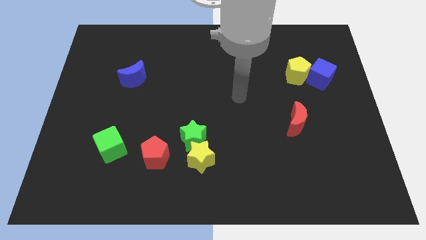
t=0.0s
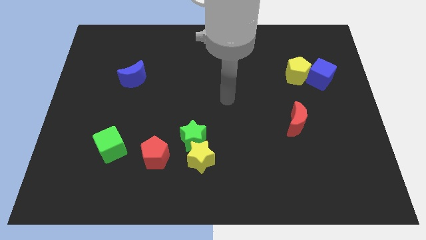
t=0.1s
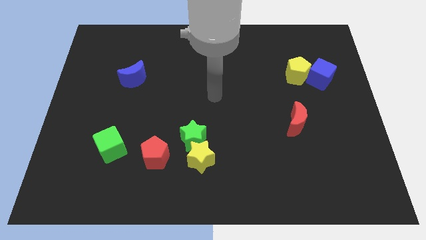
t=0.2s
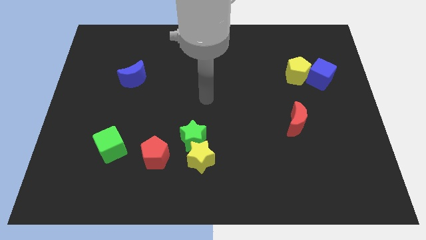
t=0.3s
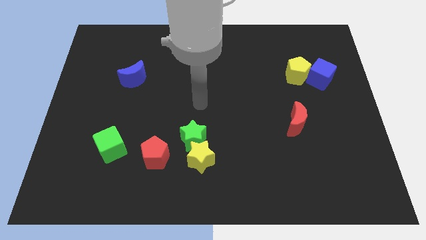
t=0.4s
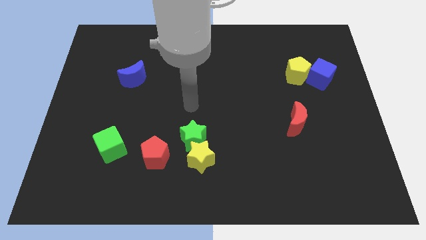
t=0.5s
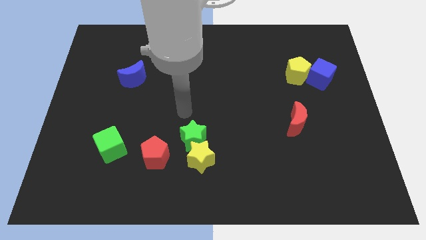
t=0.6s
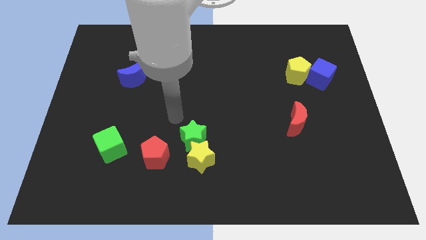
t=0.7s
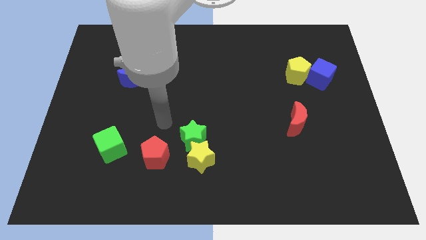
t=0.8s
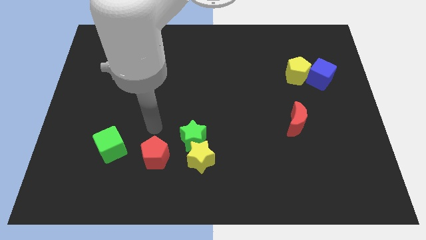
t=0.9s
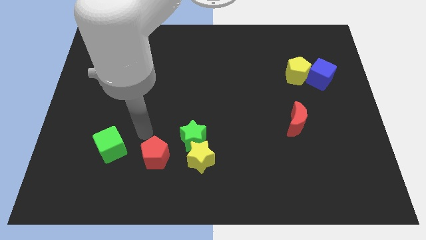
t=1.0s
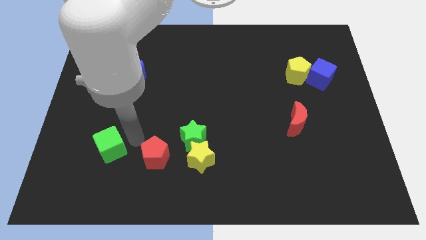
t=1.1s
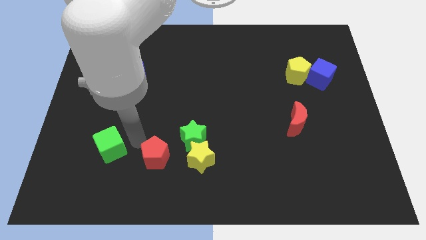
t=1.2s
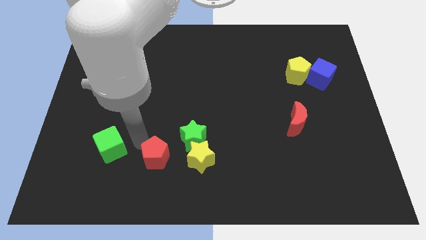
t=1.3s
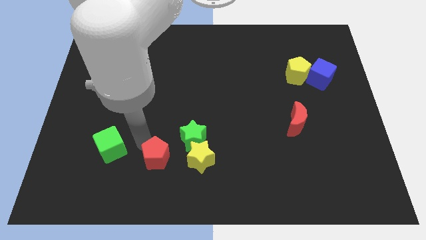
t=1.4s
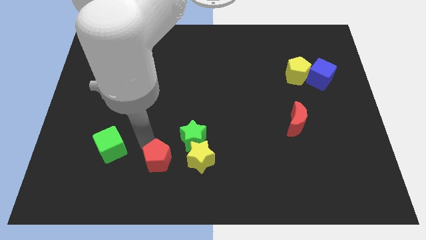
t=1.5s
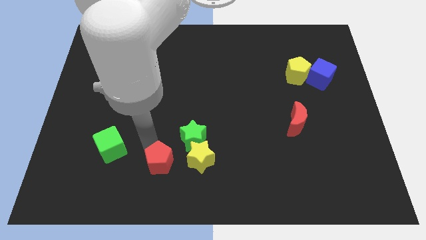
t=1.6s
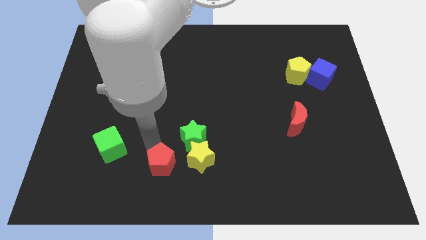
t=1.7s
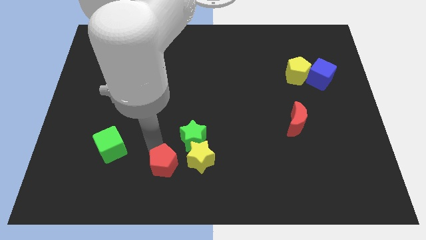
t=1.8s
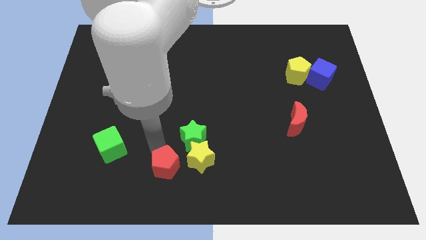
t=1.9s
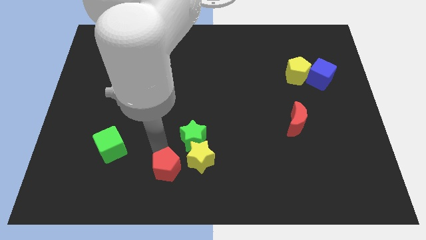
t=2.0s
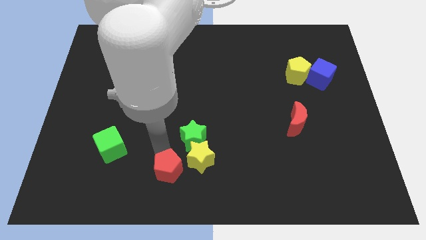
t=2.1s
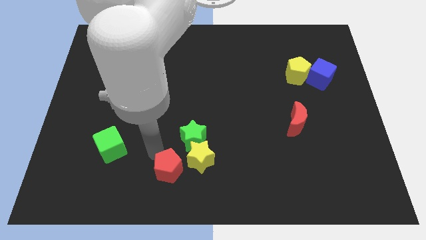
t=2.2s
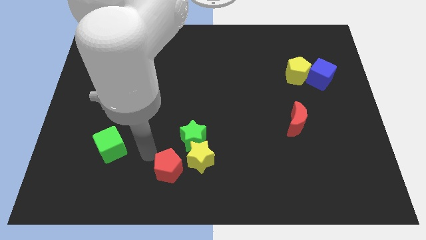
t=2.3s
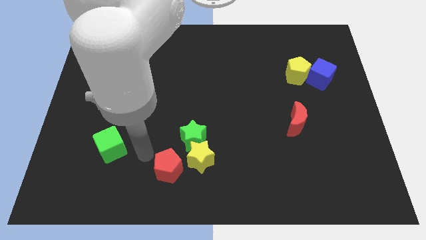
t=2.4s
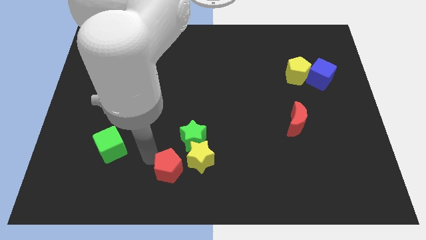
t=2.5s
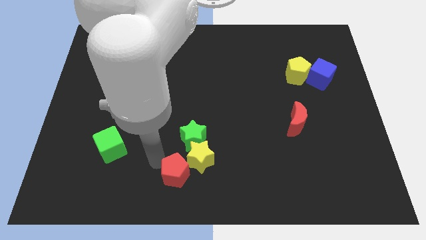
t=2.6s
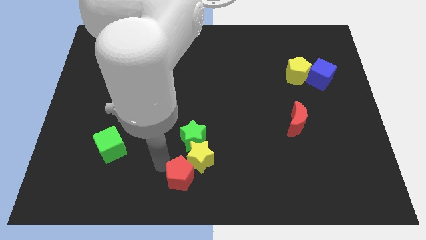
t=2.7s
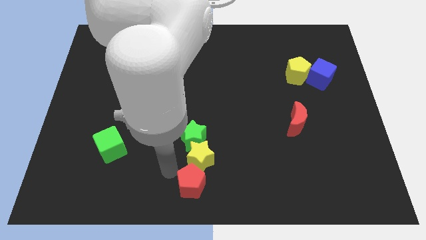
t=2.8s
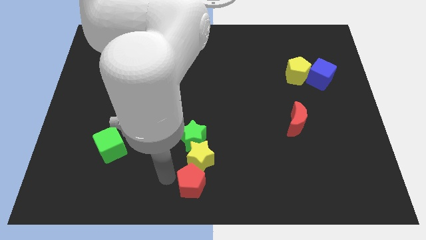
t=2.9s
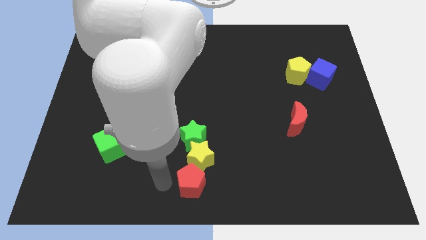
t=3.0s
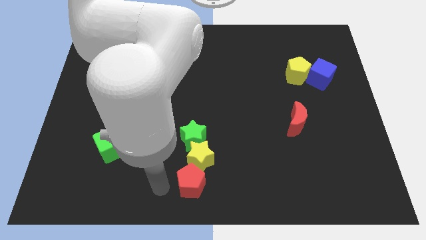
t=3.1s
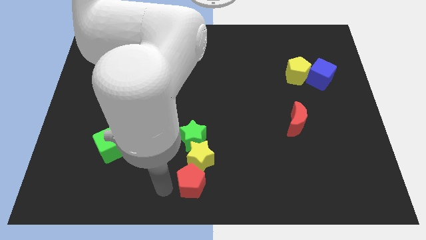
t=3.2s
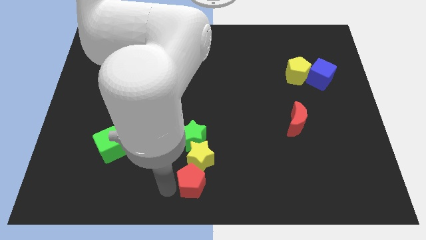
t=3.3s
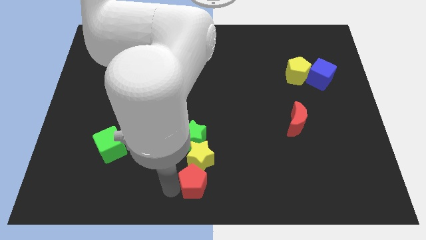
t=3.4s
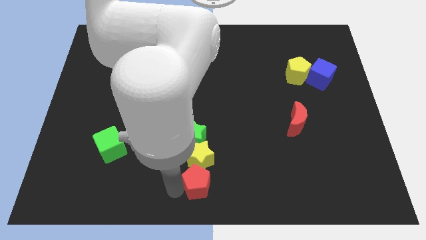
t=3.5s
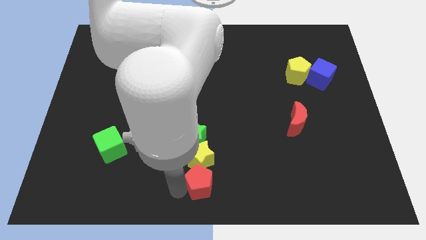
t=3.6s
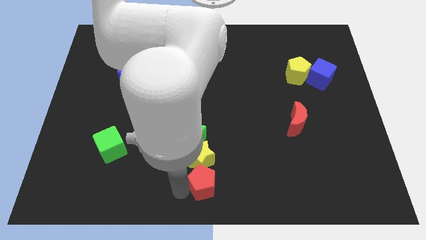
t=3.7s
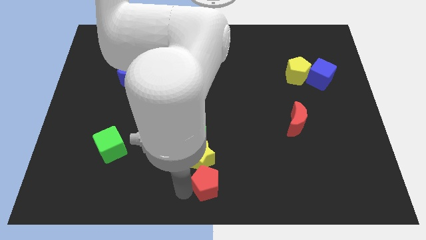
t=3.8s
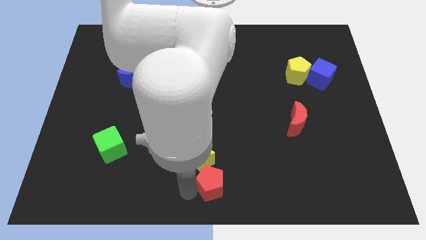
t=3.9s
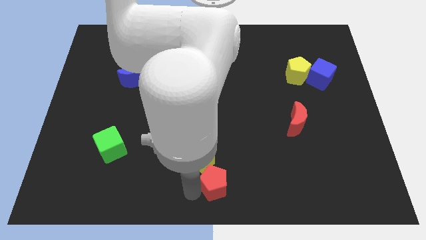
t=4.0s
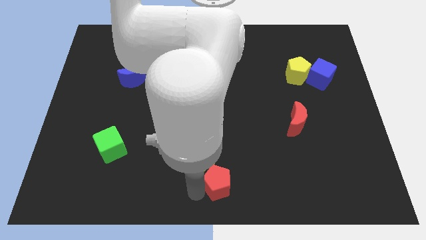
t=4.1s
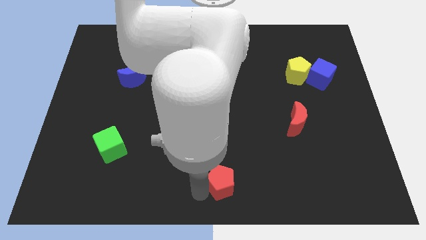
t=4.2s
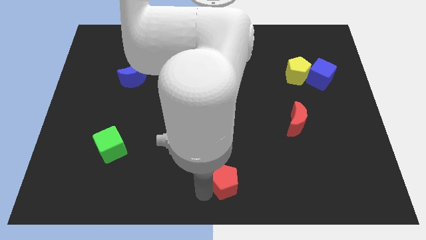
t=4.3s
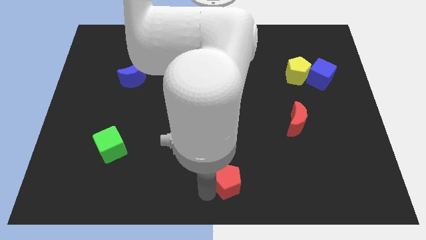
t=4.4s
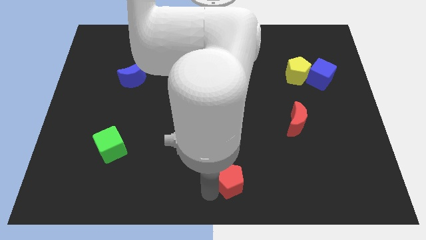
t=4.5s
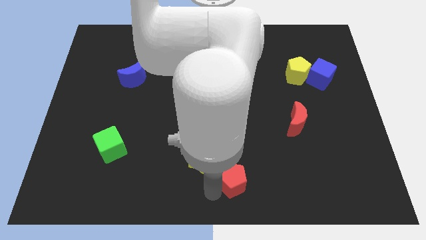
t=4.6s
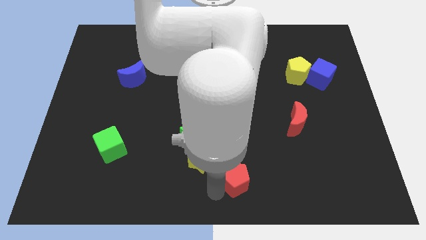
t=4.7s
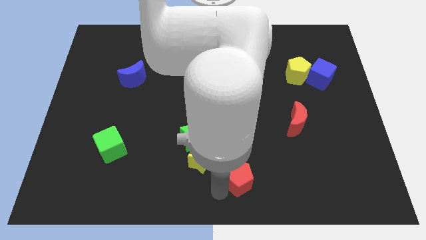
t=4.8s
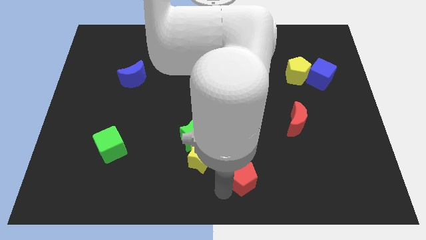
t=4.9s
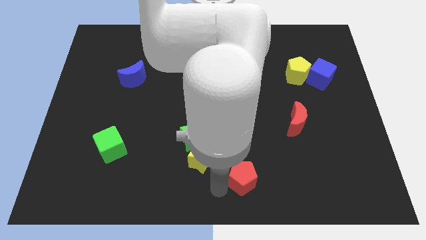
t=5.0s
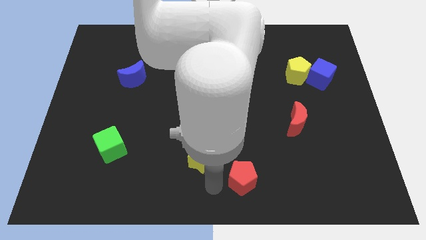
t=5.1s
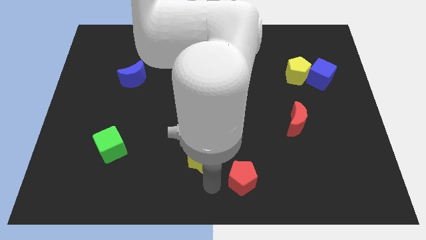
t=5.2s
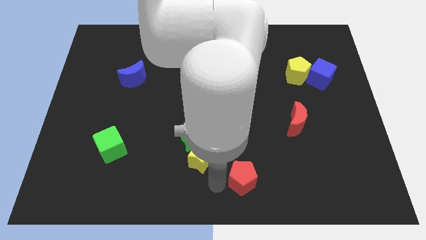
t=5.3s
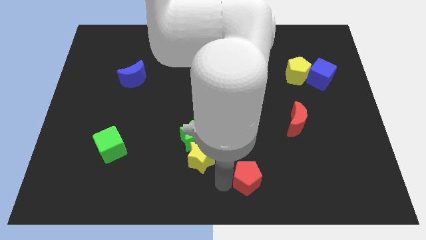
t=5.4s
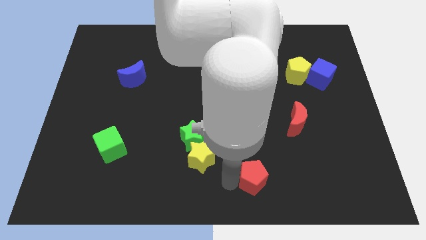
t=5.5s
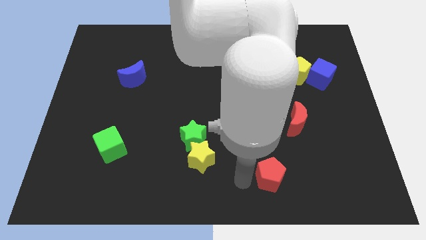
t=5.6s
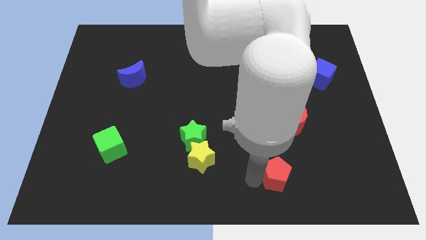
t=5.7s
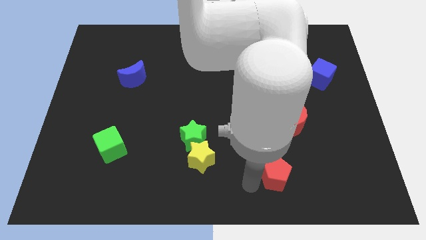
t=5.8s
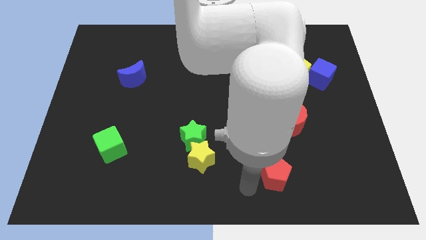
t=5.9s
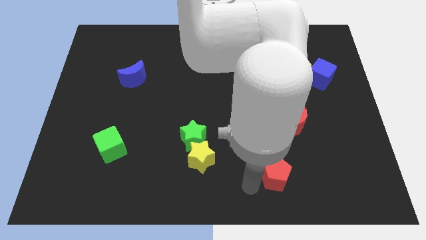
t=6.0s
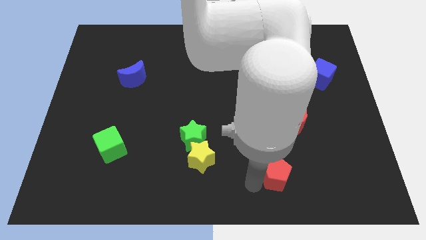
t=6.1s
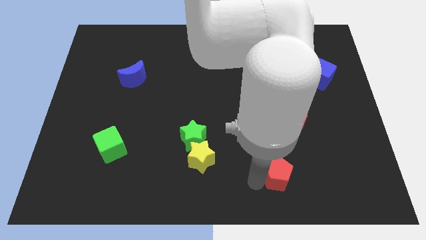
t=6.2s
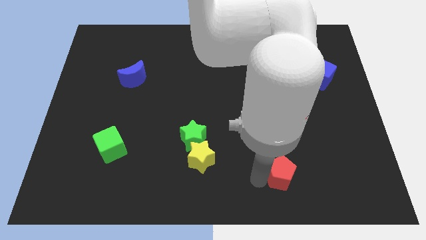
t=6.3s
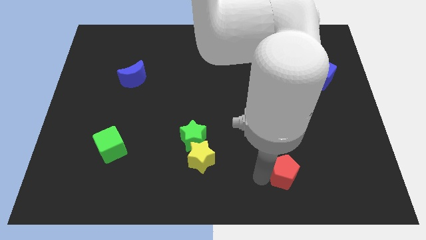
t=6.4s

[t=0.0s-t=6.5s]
put the red pentagon to the bottom of the red moon

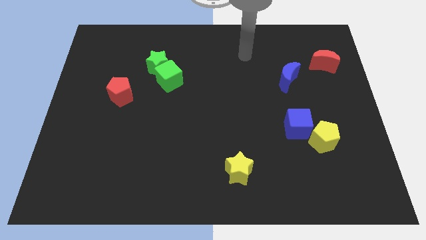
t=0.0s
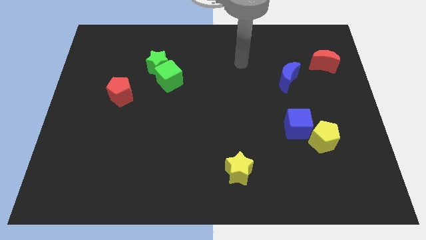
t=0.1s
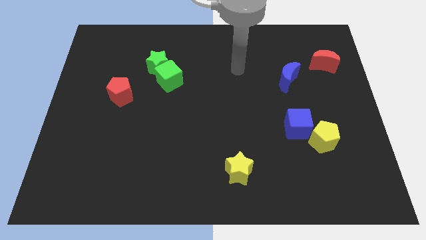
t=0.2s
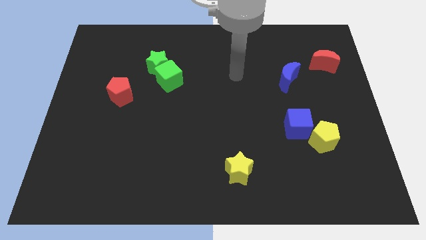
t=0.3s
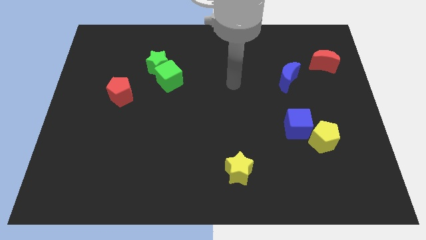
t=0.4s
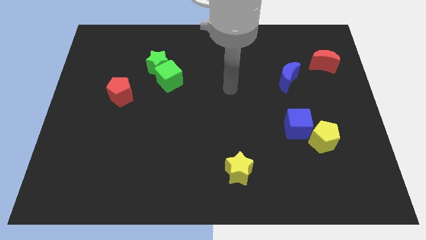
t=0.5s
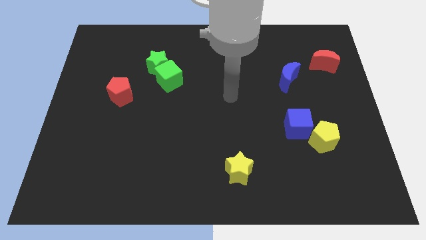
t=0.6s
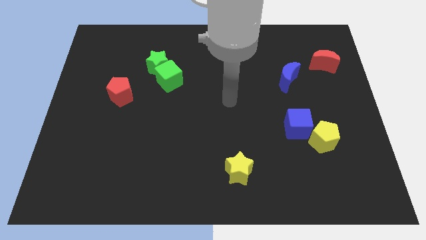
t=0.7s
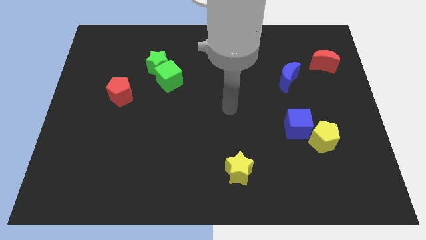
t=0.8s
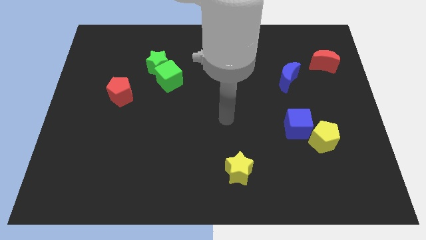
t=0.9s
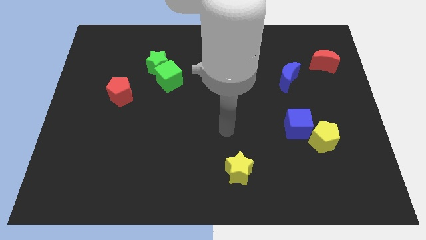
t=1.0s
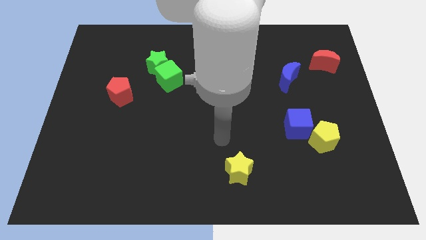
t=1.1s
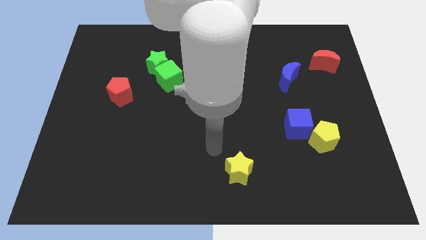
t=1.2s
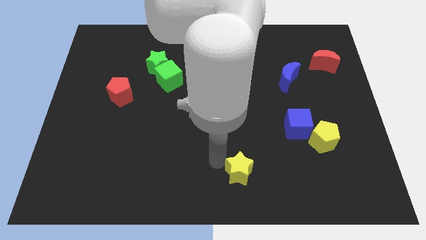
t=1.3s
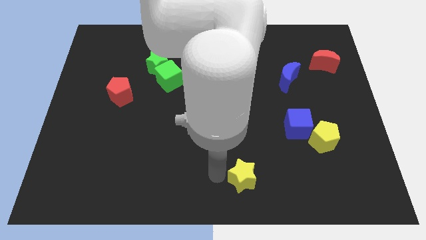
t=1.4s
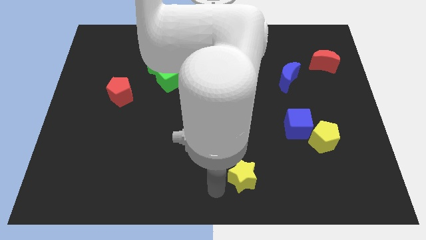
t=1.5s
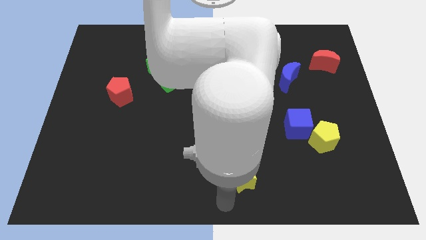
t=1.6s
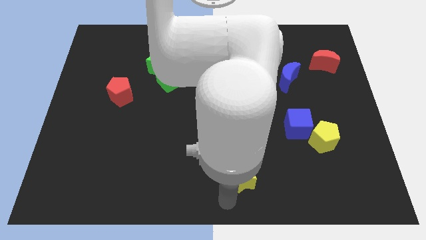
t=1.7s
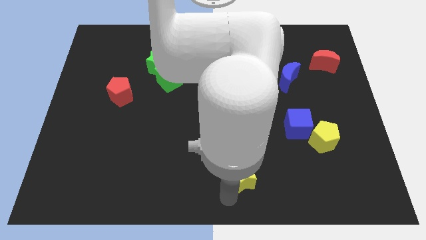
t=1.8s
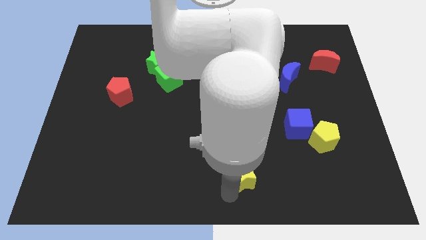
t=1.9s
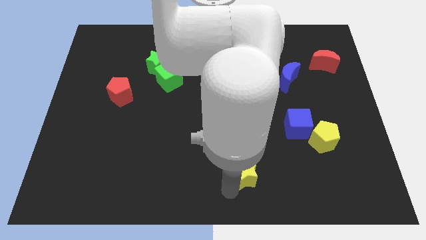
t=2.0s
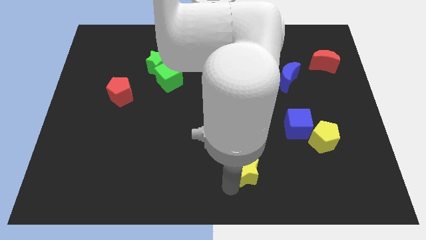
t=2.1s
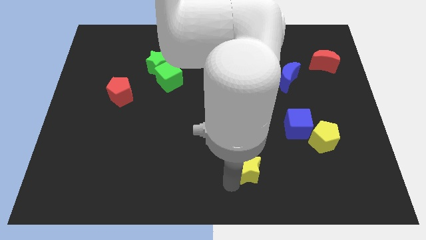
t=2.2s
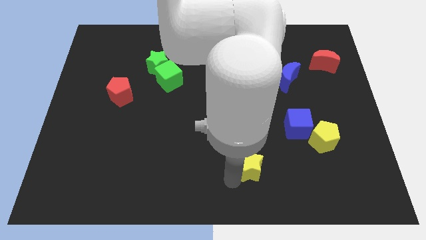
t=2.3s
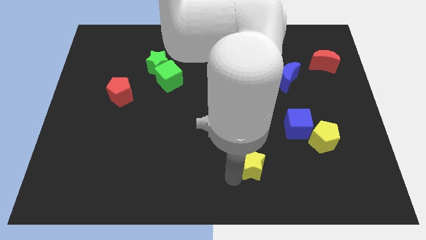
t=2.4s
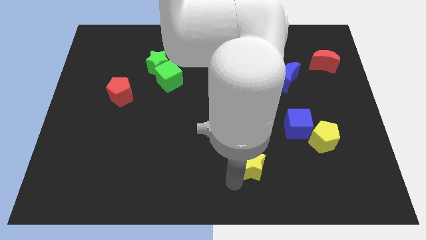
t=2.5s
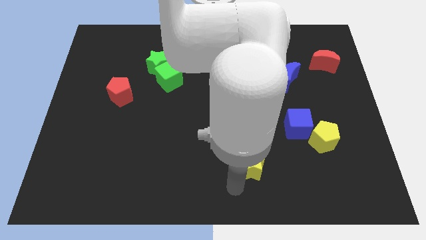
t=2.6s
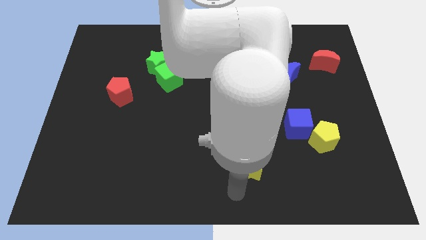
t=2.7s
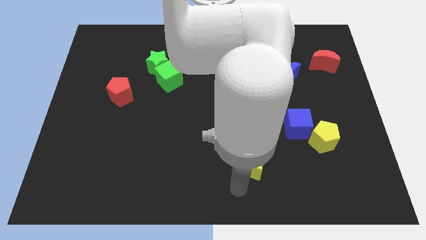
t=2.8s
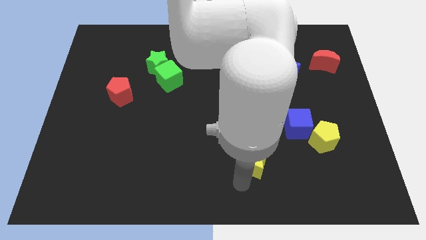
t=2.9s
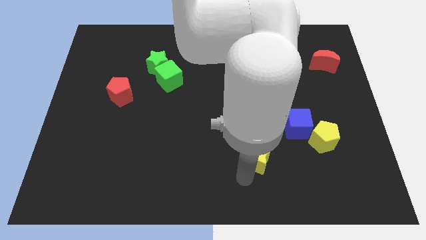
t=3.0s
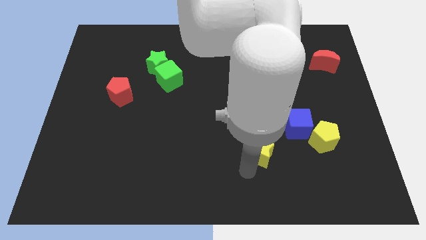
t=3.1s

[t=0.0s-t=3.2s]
put the yellow star to the bottom left of the blue cube
